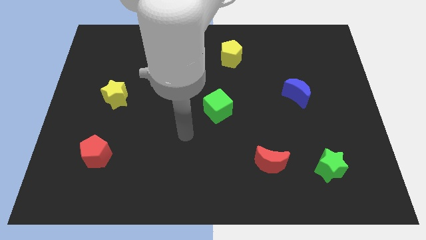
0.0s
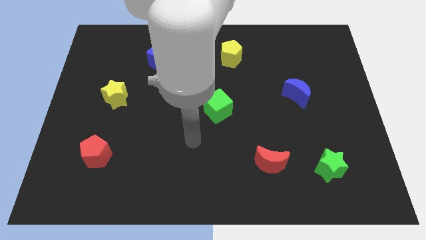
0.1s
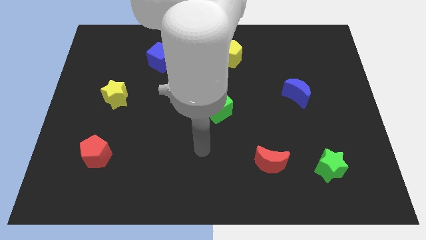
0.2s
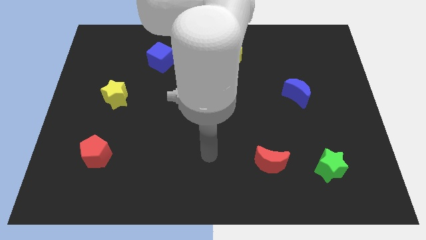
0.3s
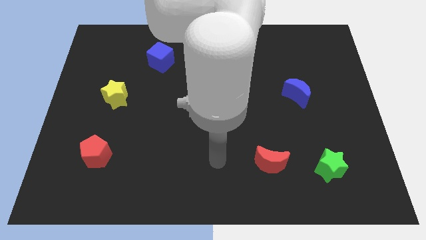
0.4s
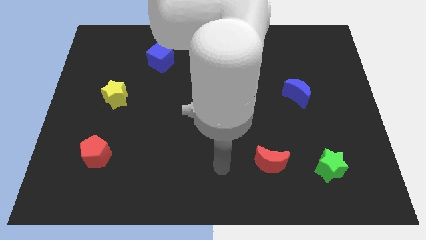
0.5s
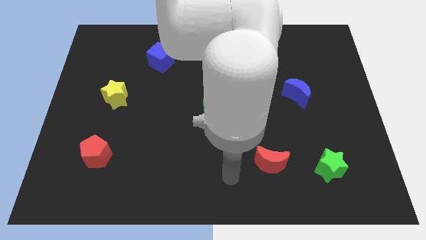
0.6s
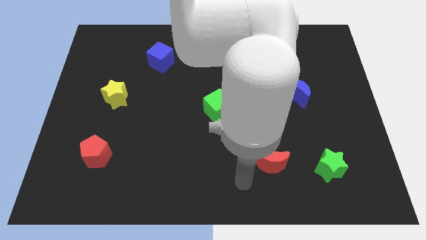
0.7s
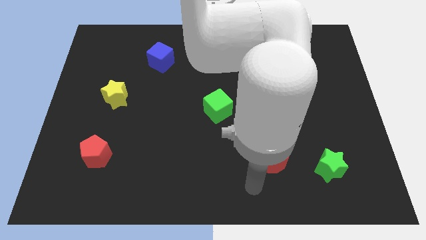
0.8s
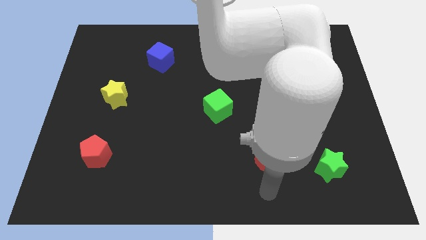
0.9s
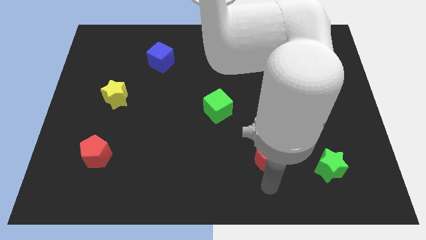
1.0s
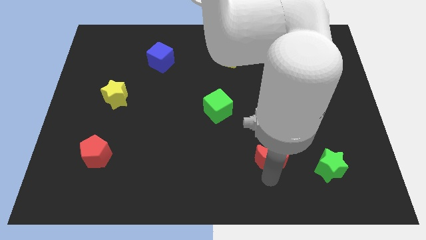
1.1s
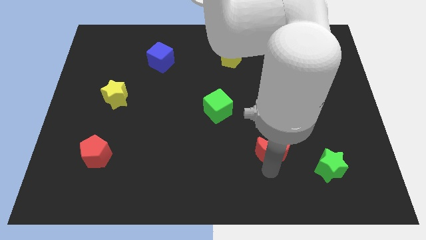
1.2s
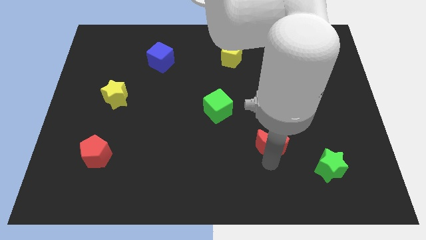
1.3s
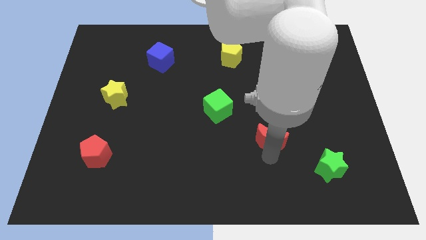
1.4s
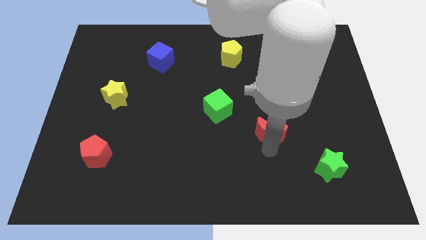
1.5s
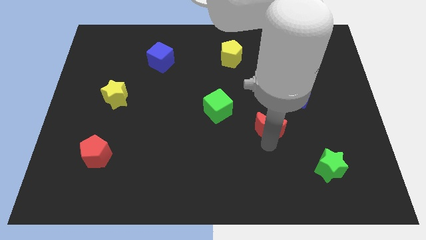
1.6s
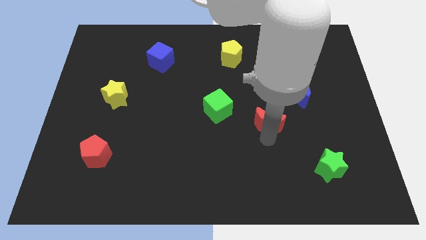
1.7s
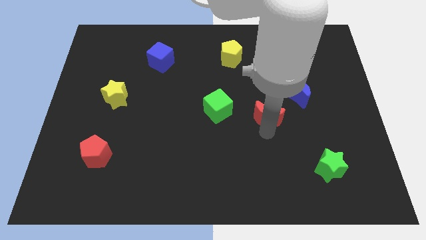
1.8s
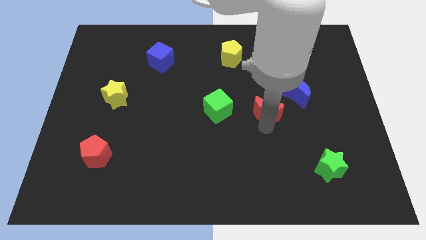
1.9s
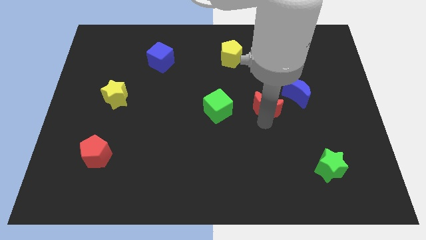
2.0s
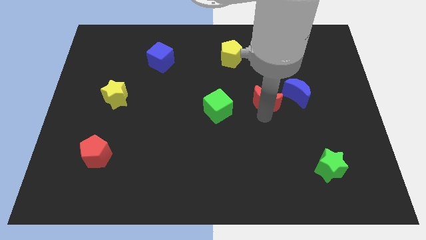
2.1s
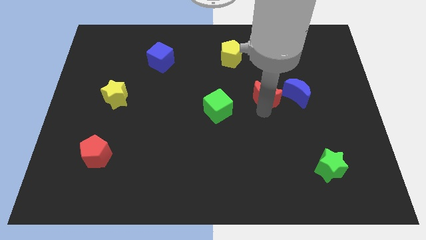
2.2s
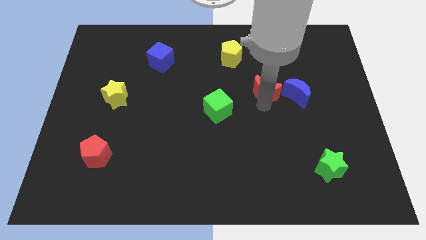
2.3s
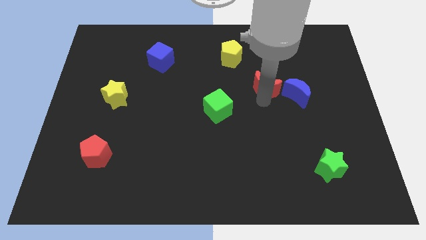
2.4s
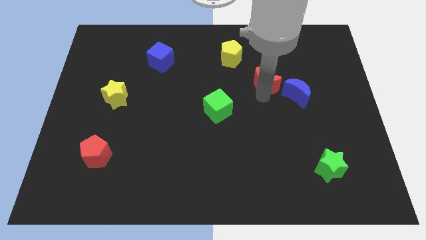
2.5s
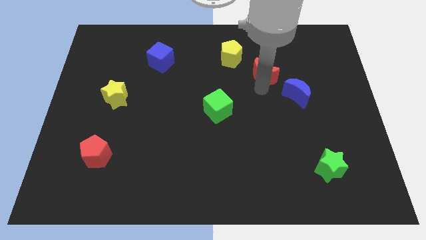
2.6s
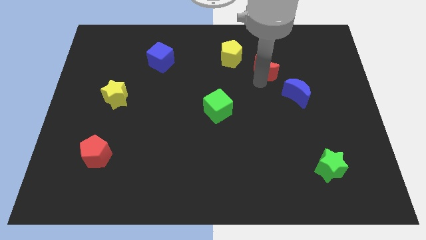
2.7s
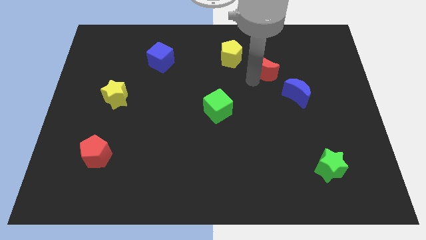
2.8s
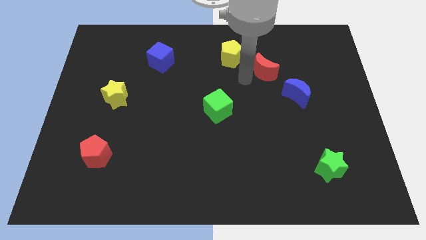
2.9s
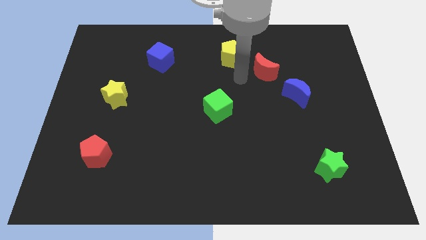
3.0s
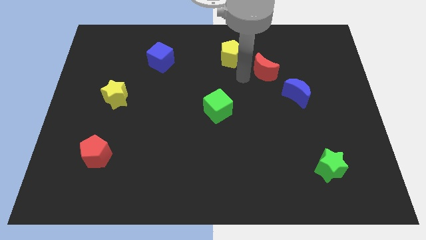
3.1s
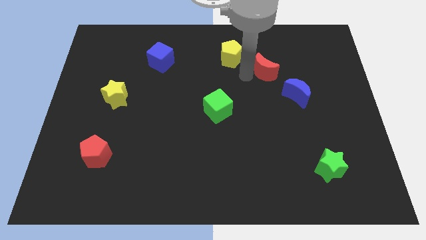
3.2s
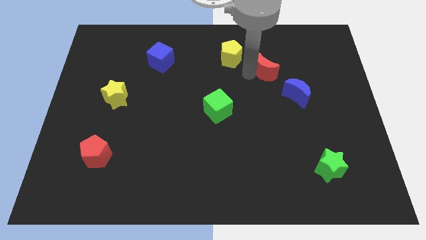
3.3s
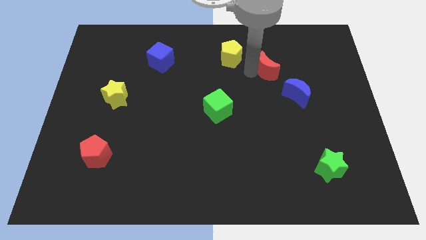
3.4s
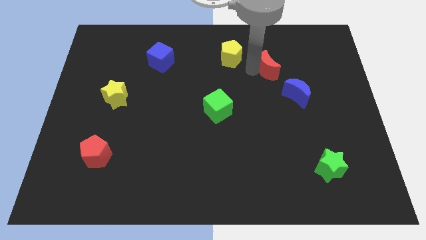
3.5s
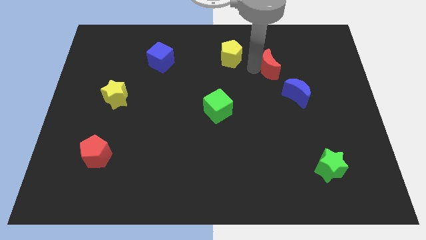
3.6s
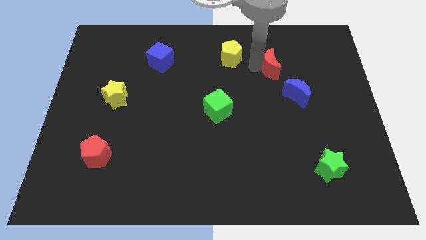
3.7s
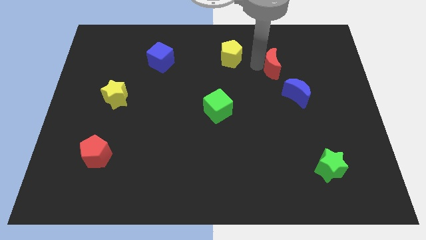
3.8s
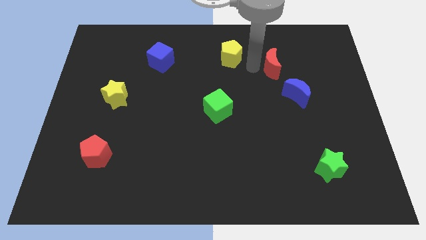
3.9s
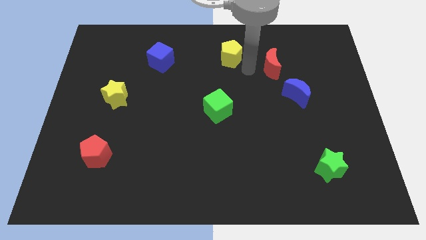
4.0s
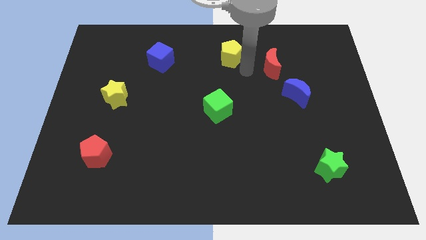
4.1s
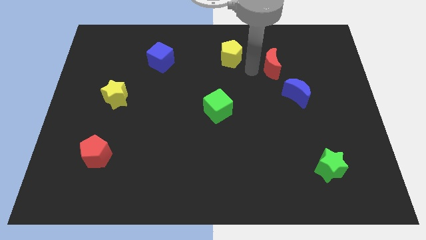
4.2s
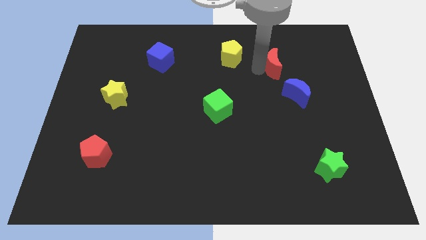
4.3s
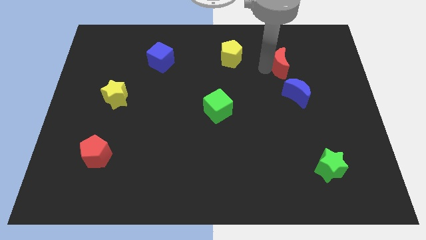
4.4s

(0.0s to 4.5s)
slide the red moon above the blue moon
